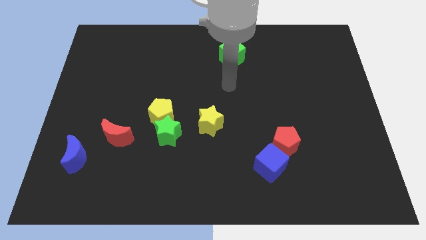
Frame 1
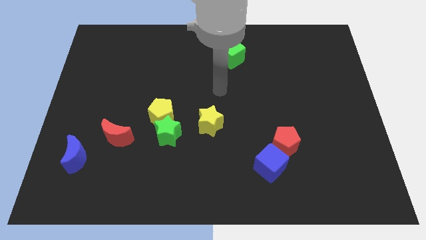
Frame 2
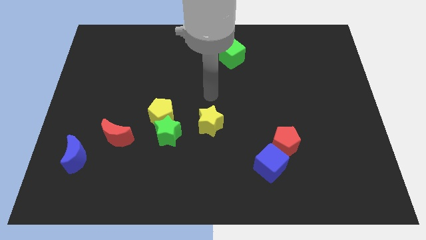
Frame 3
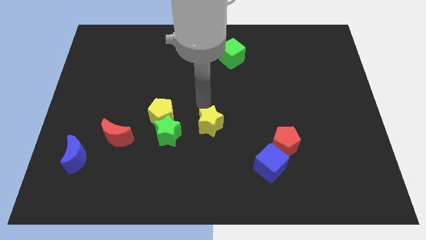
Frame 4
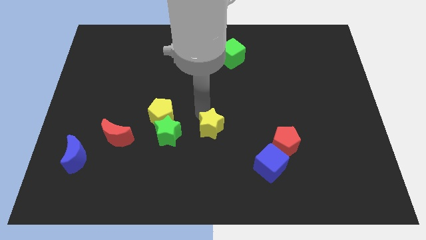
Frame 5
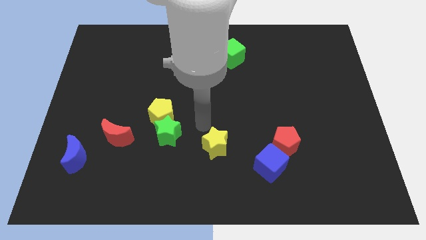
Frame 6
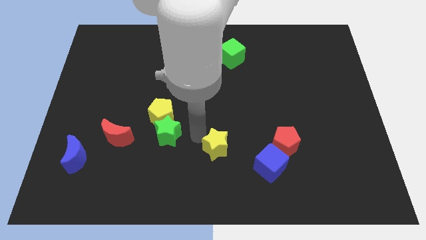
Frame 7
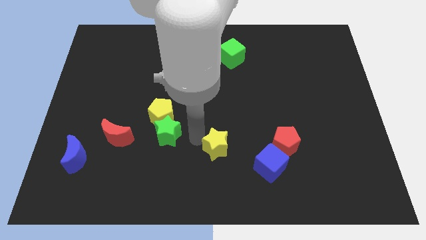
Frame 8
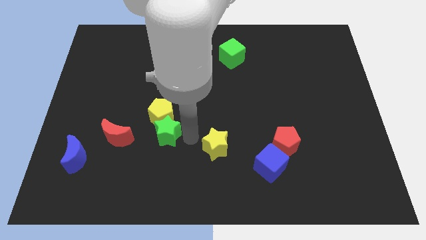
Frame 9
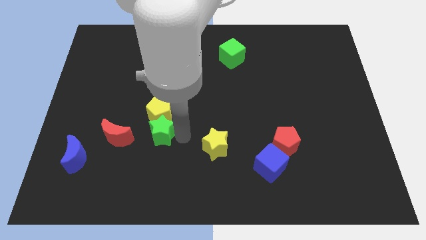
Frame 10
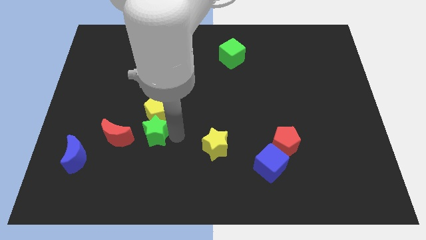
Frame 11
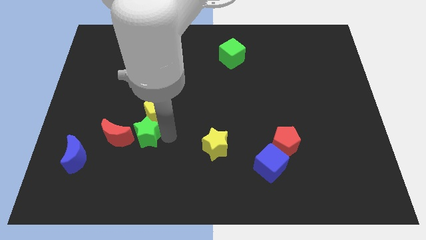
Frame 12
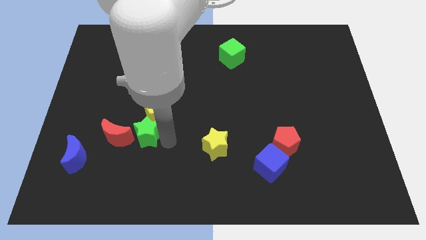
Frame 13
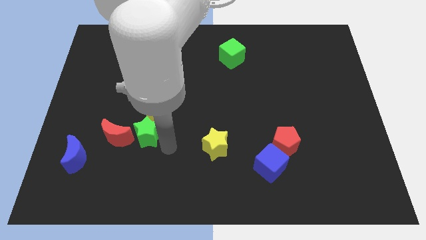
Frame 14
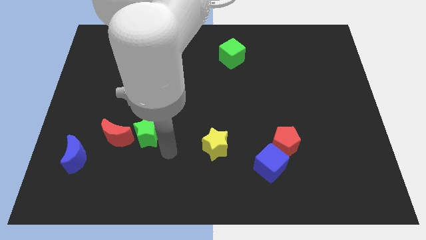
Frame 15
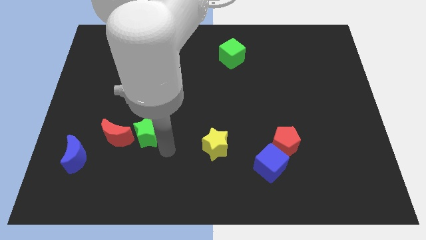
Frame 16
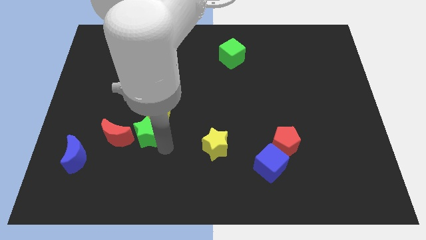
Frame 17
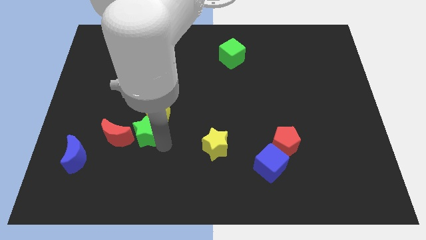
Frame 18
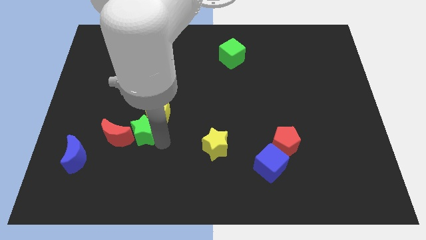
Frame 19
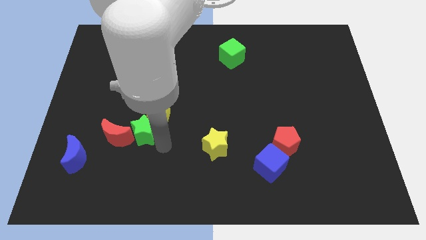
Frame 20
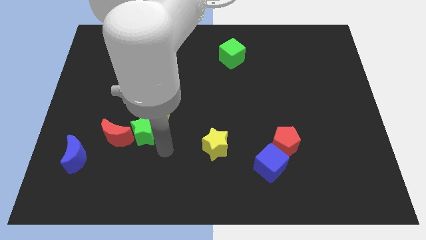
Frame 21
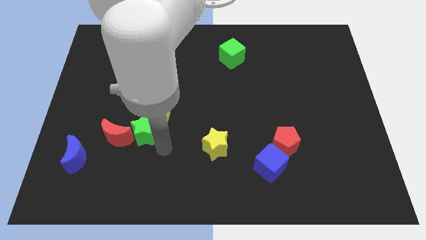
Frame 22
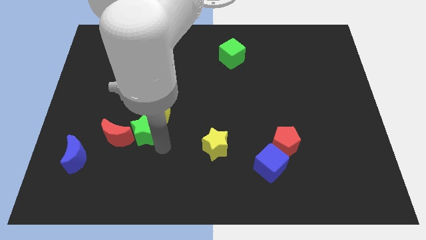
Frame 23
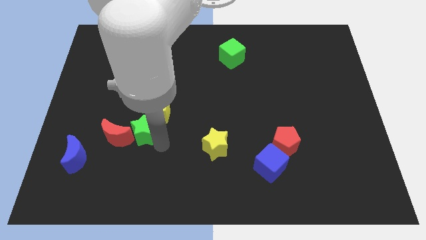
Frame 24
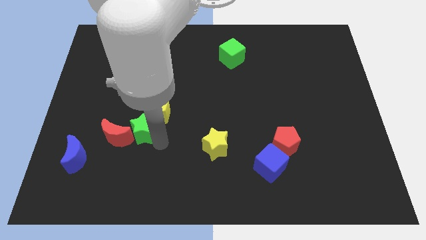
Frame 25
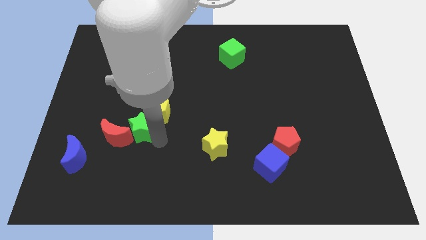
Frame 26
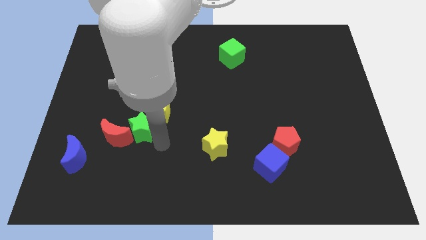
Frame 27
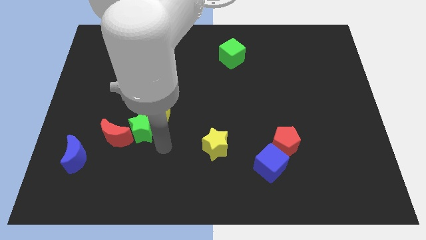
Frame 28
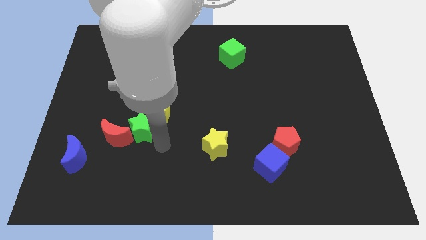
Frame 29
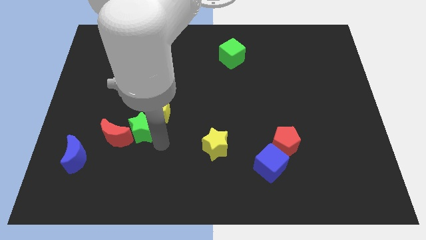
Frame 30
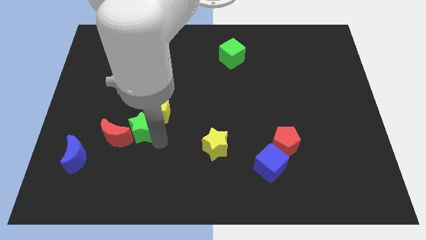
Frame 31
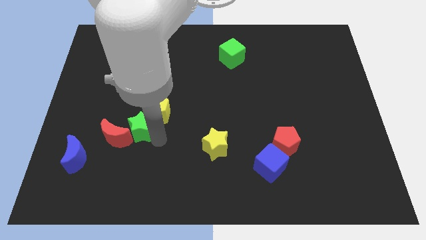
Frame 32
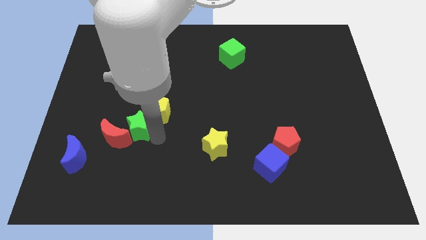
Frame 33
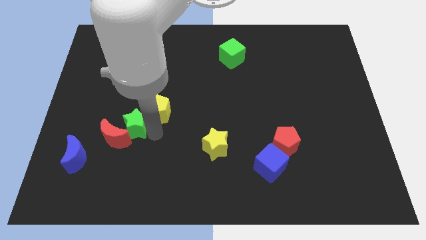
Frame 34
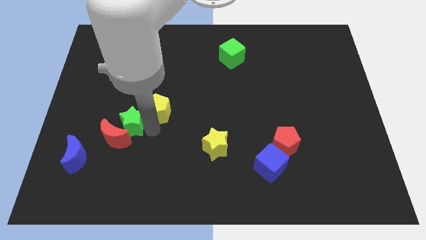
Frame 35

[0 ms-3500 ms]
move the green star diagonally upwards and to the left slightly

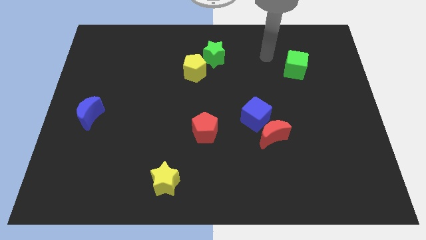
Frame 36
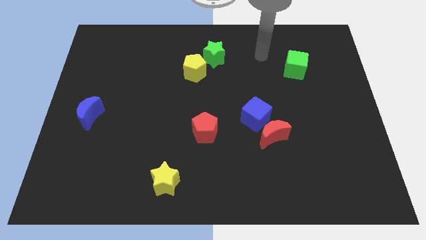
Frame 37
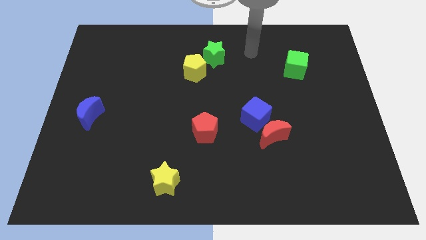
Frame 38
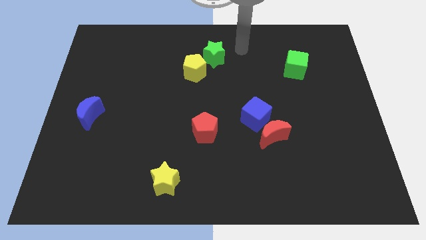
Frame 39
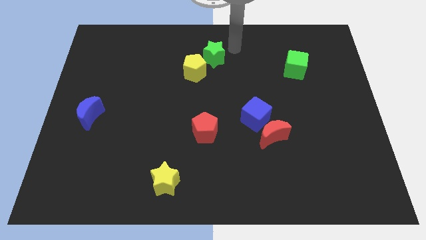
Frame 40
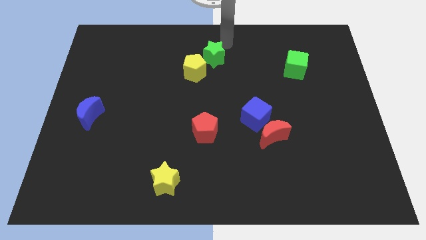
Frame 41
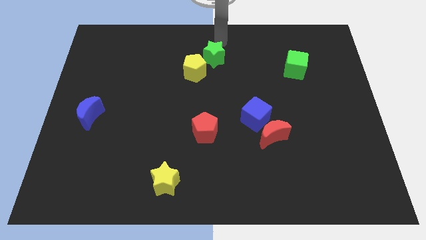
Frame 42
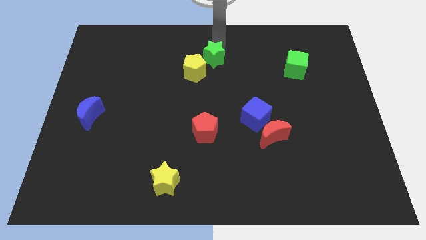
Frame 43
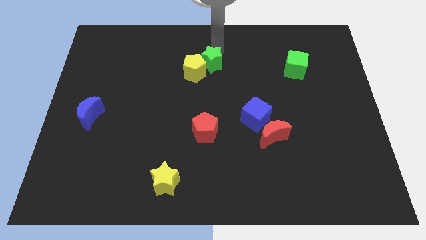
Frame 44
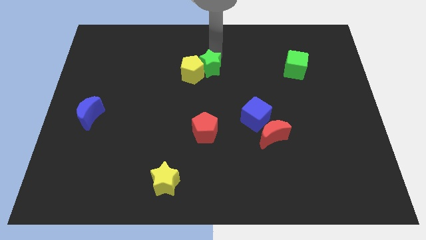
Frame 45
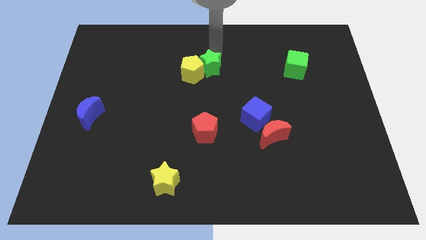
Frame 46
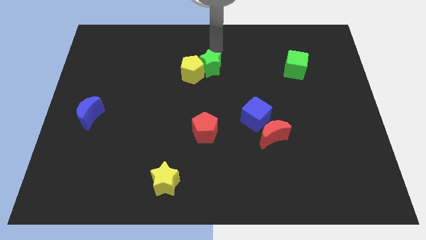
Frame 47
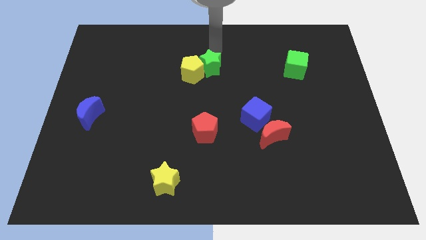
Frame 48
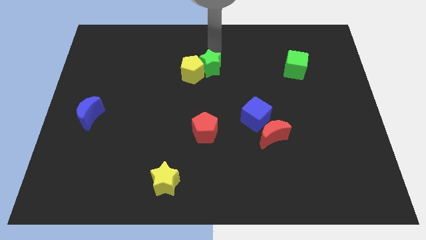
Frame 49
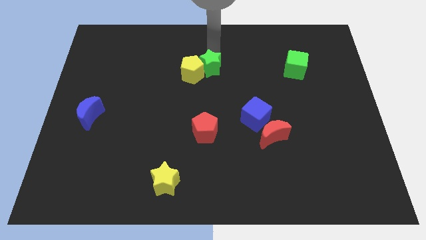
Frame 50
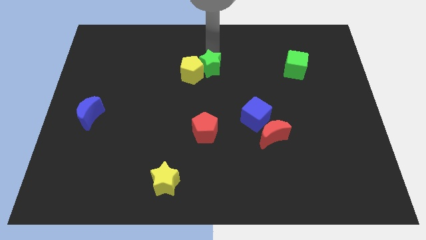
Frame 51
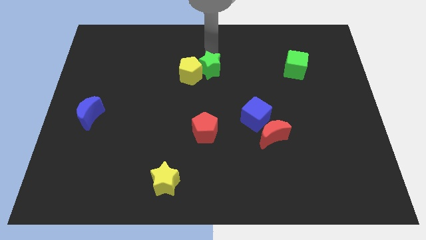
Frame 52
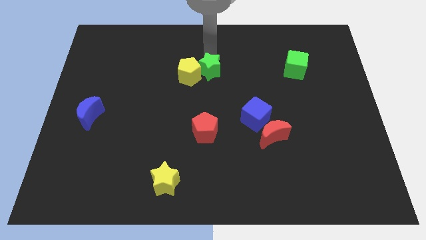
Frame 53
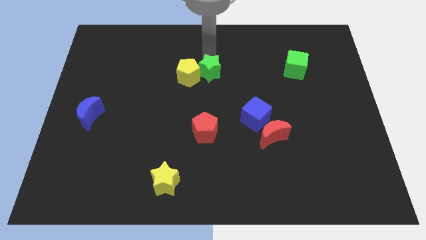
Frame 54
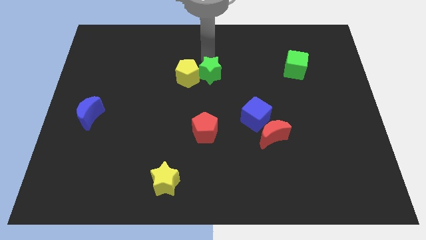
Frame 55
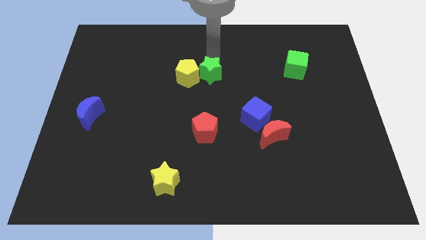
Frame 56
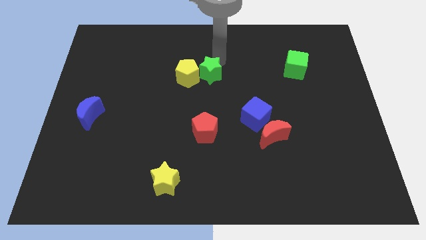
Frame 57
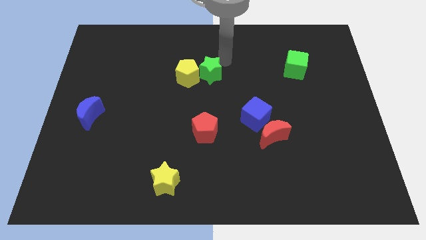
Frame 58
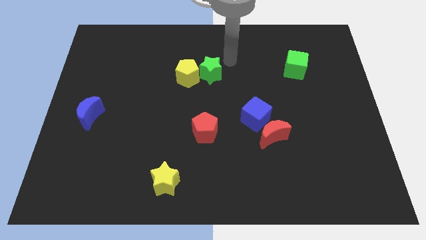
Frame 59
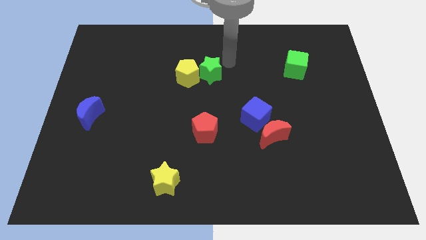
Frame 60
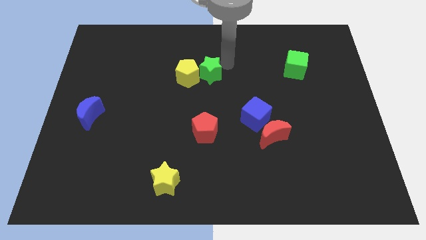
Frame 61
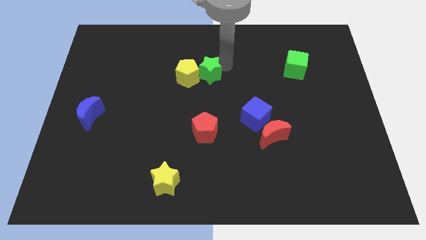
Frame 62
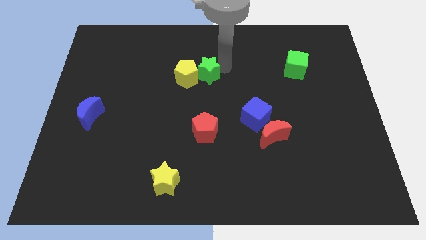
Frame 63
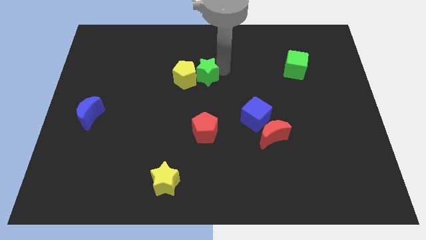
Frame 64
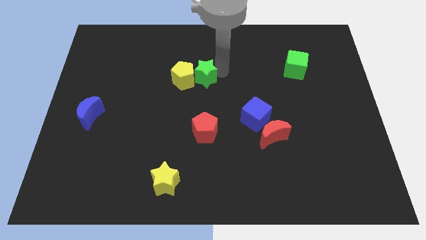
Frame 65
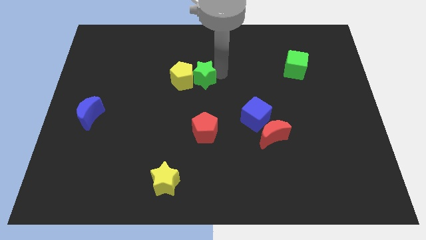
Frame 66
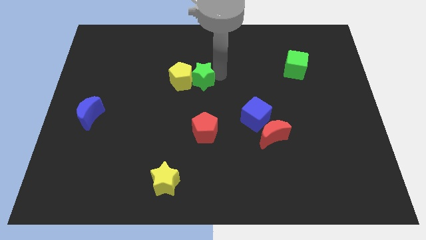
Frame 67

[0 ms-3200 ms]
slightly move the green star downwards and left diagonally

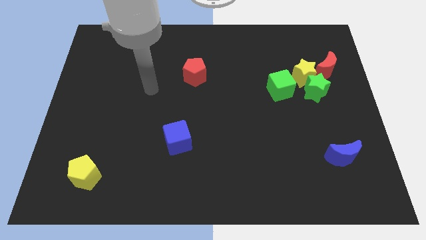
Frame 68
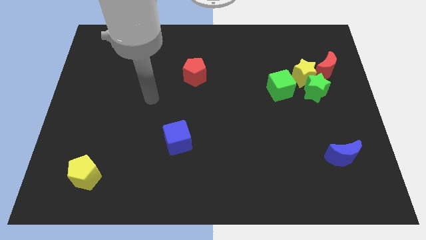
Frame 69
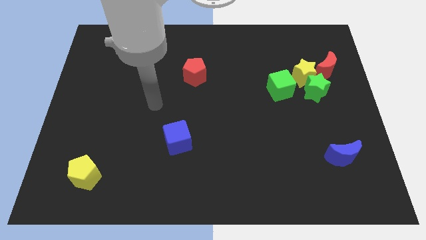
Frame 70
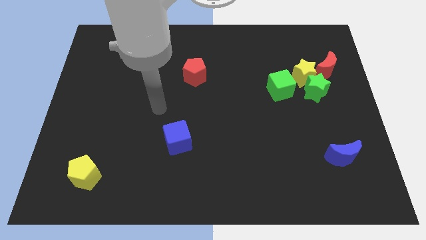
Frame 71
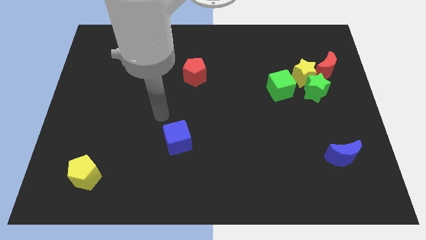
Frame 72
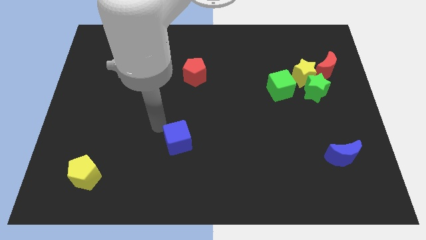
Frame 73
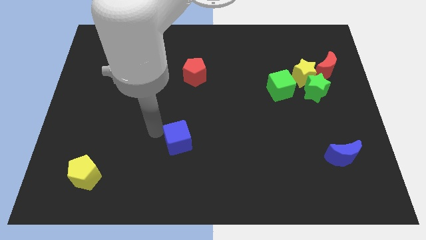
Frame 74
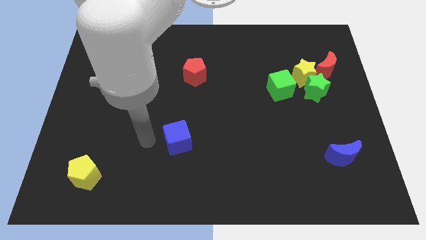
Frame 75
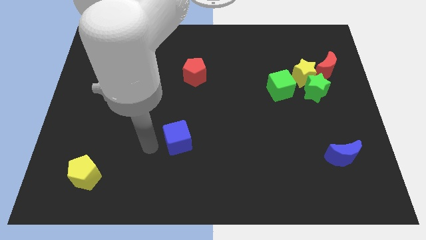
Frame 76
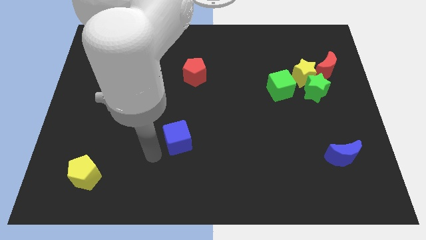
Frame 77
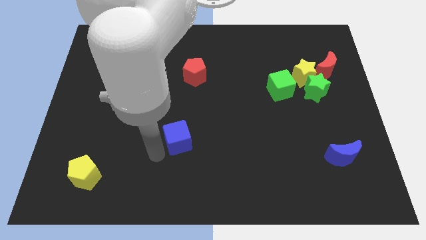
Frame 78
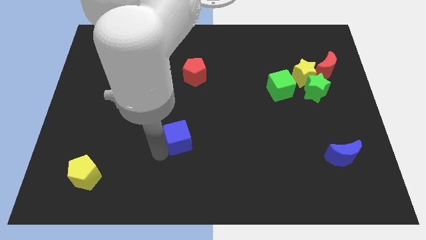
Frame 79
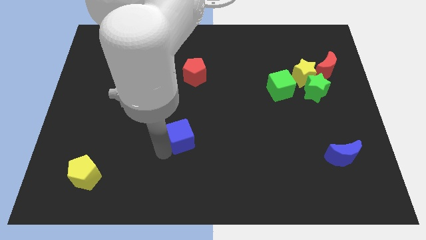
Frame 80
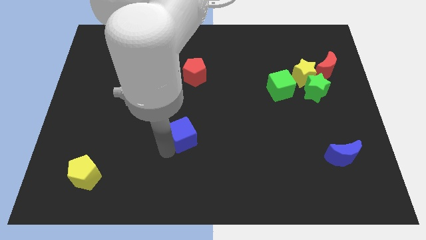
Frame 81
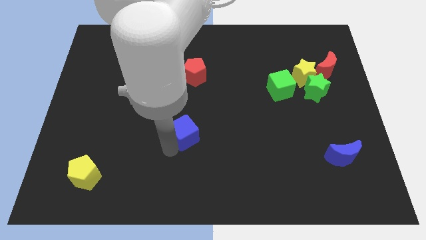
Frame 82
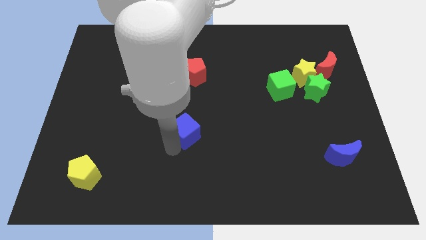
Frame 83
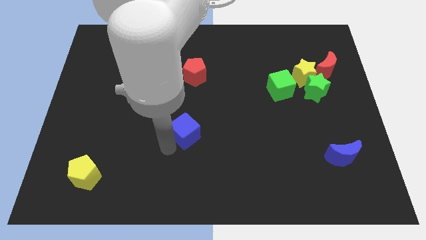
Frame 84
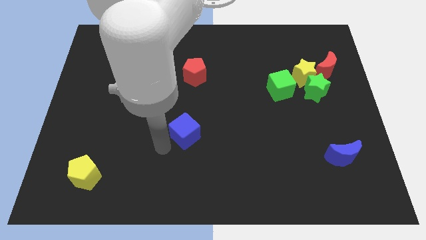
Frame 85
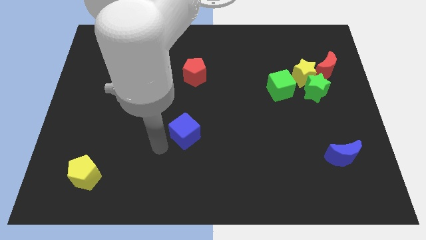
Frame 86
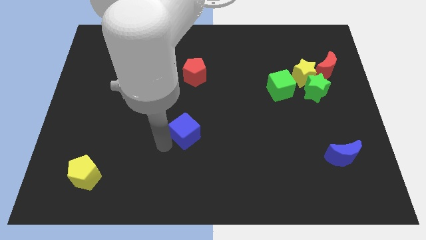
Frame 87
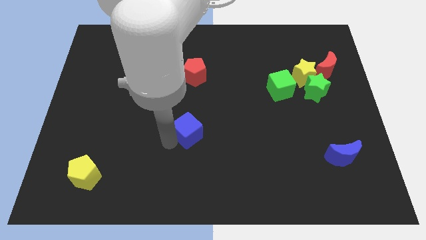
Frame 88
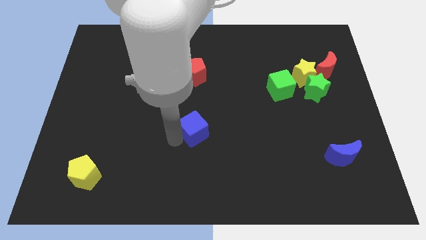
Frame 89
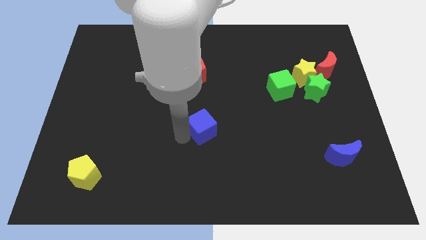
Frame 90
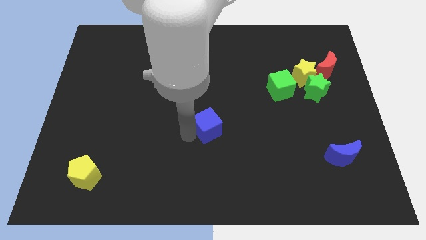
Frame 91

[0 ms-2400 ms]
slide the blue cube somewhat up and then to the right
